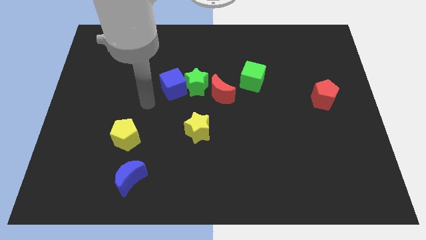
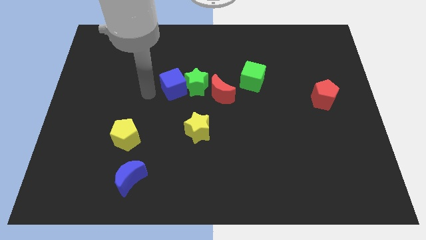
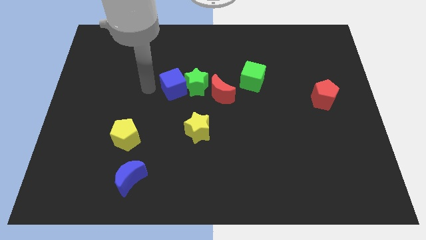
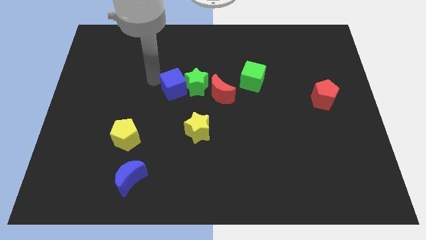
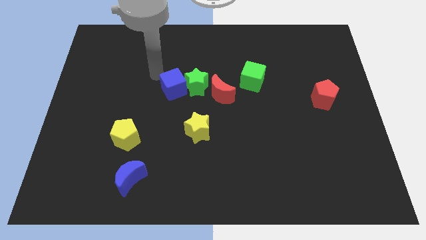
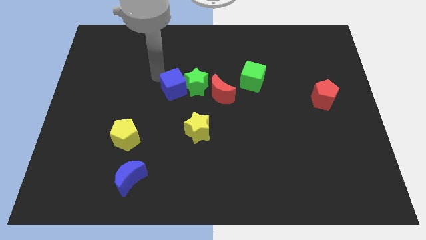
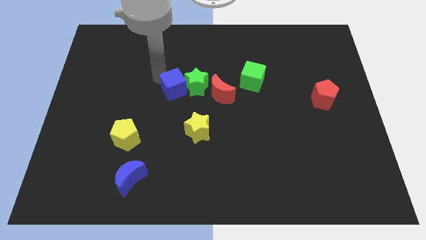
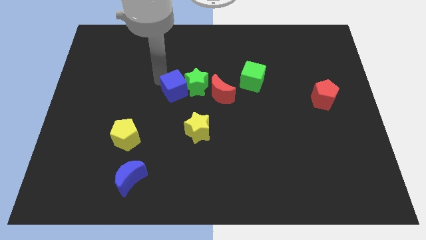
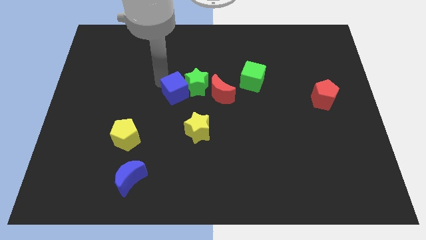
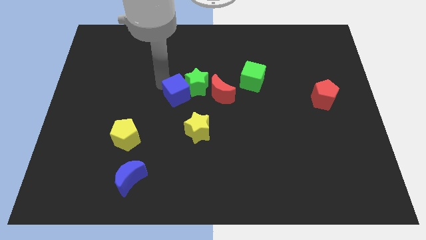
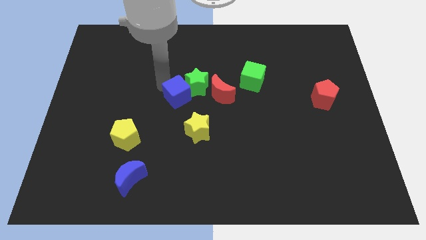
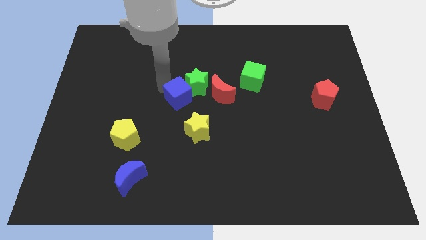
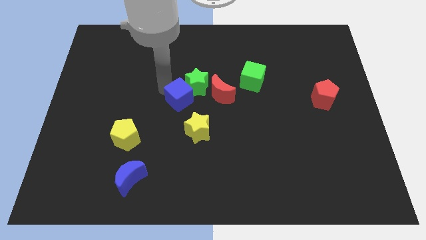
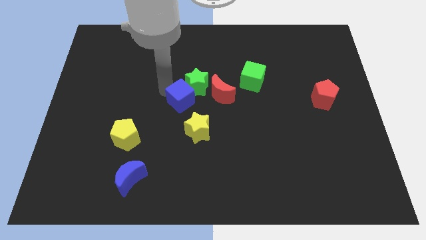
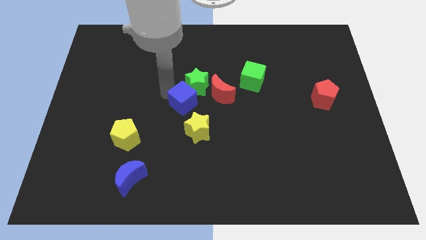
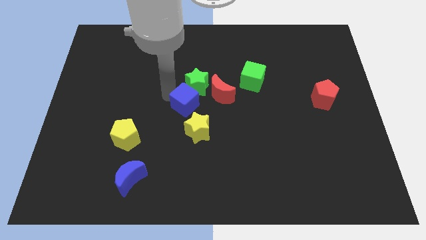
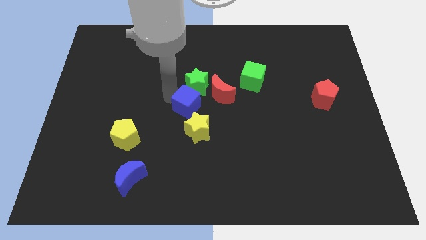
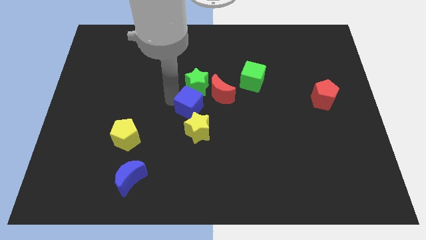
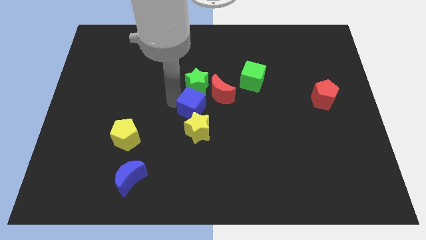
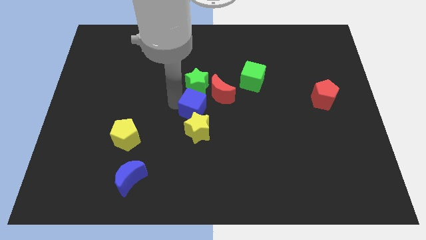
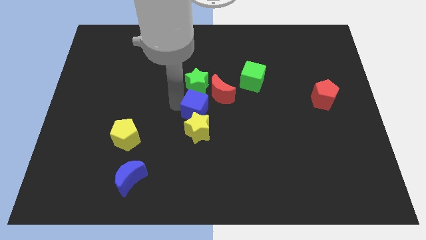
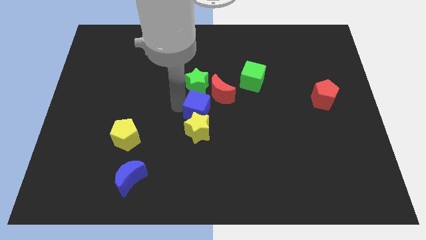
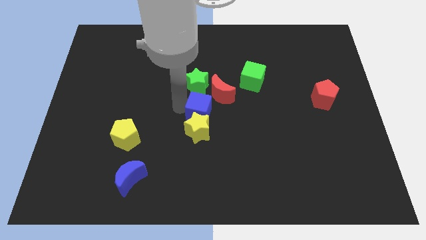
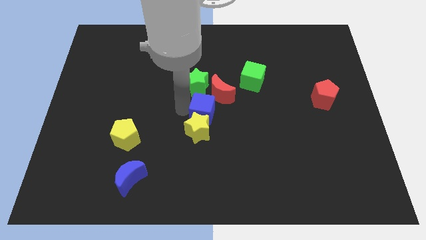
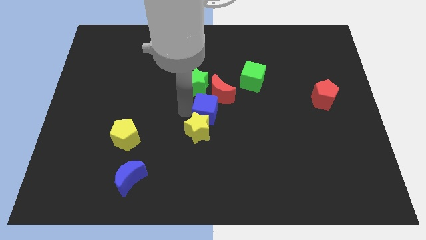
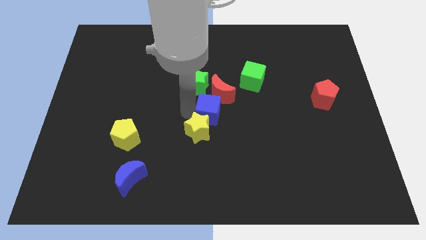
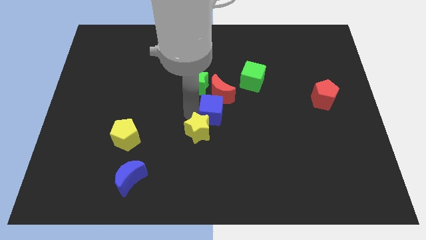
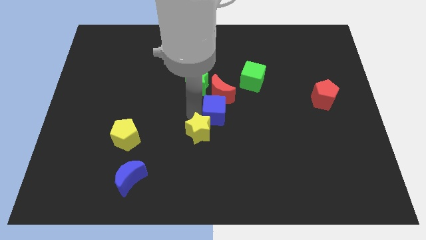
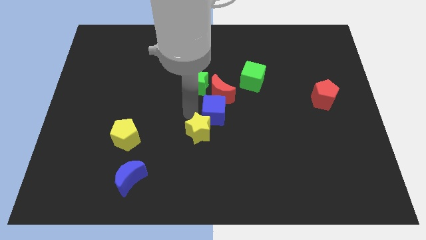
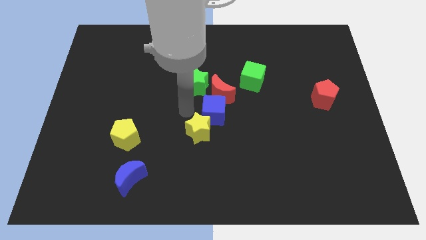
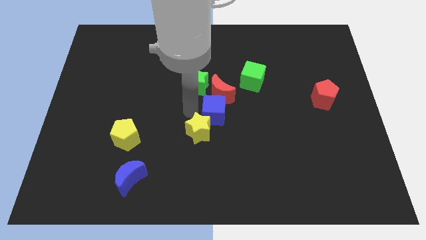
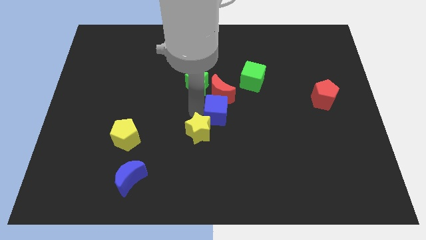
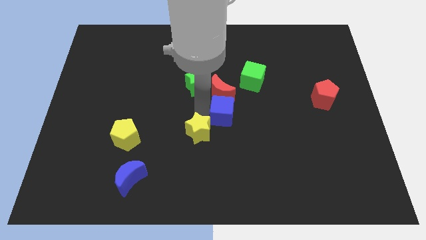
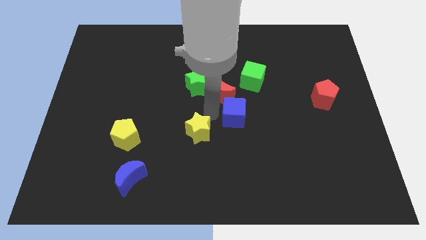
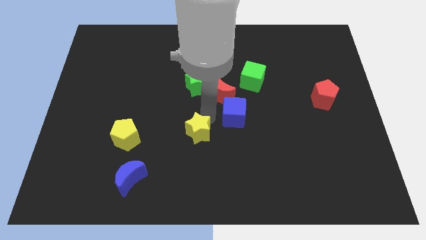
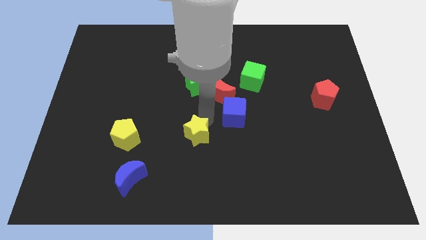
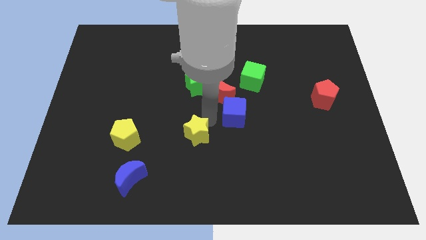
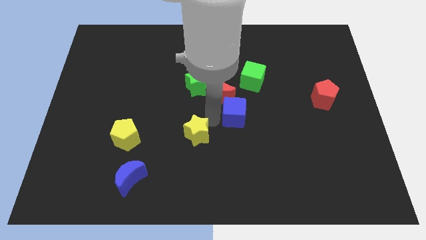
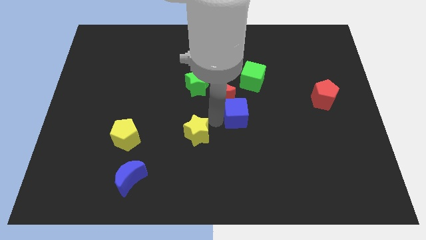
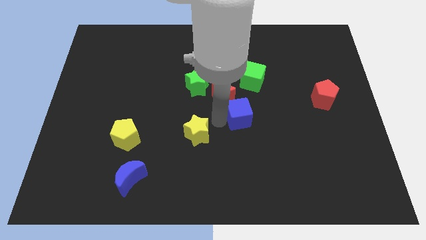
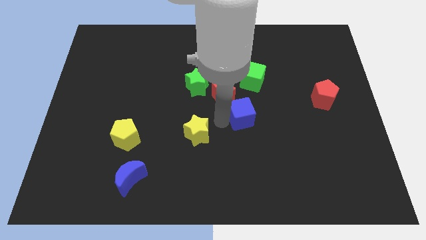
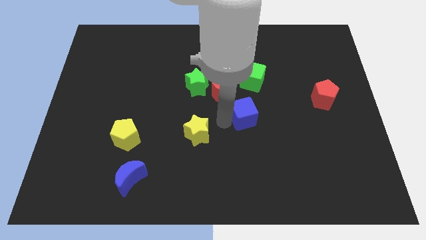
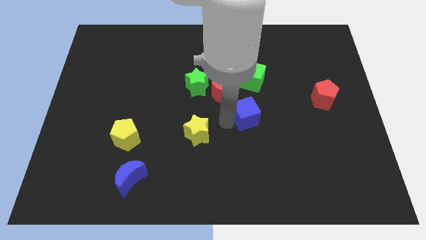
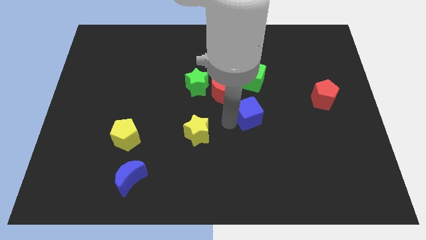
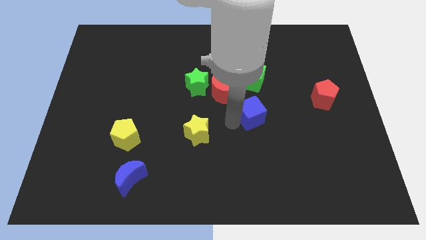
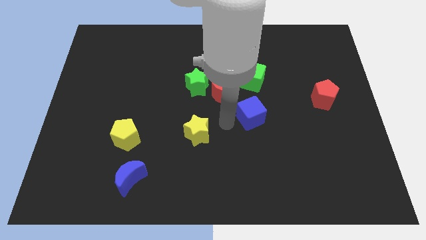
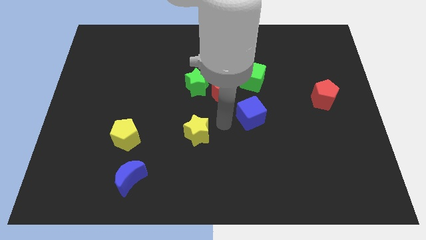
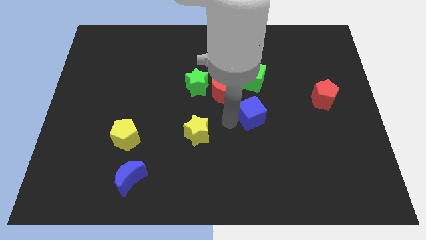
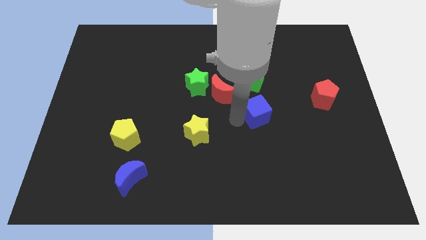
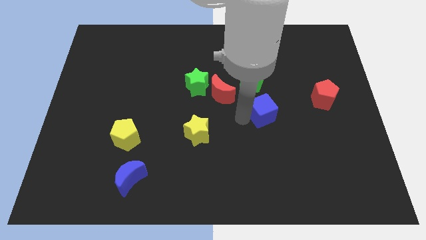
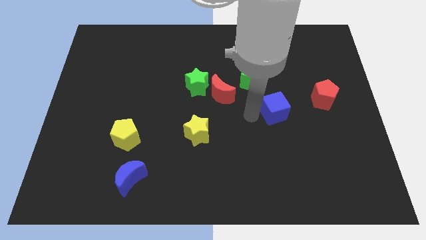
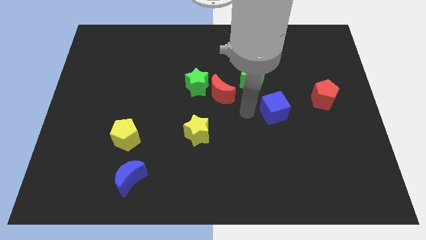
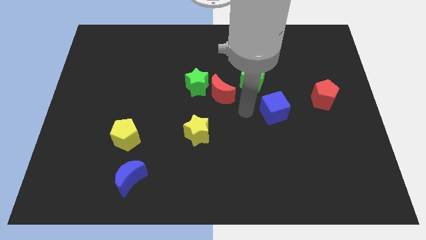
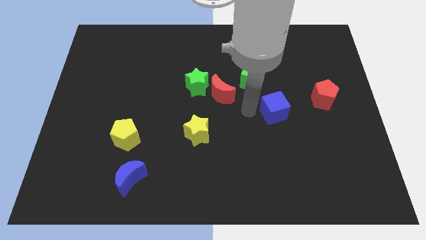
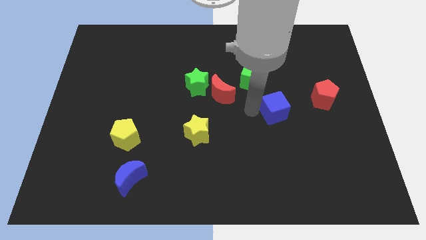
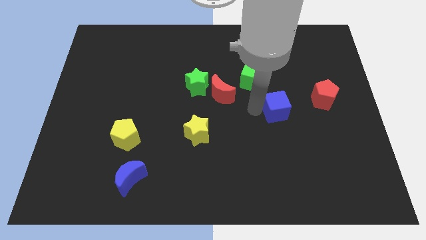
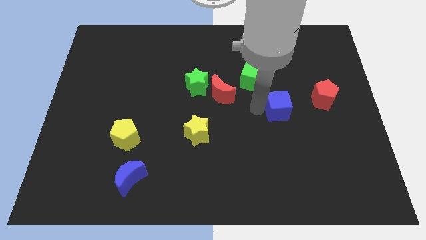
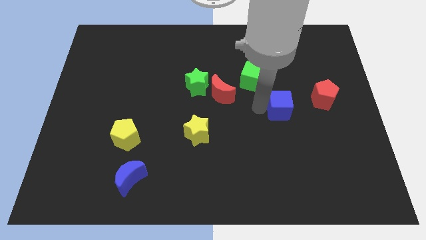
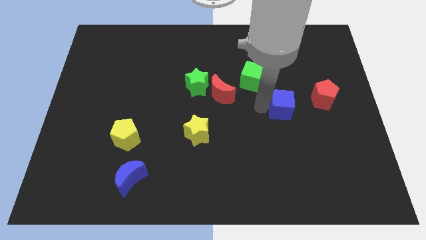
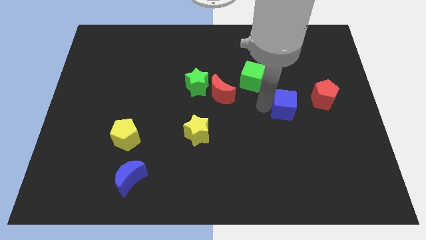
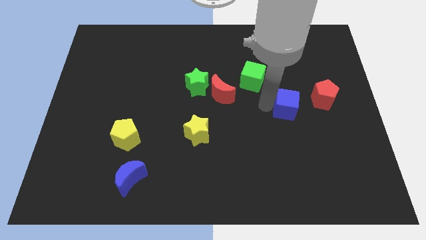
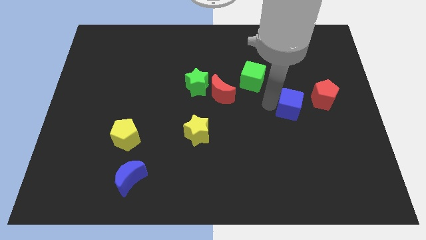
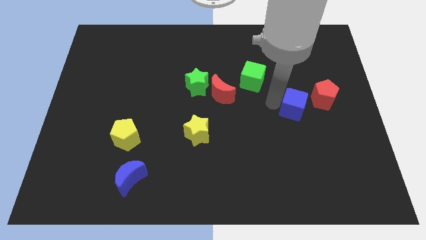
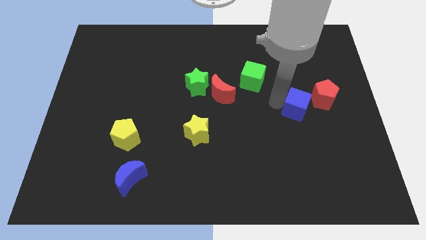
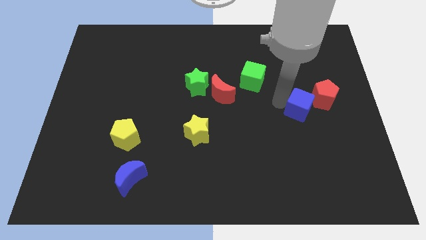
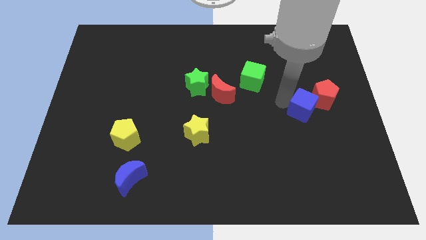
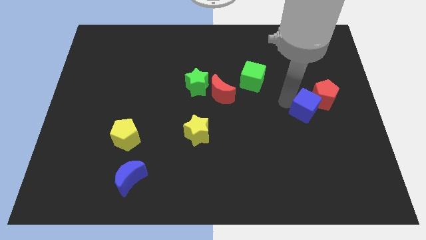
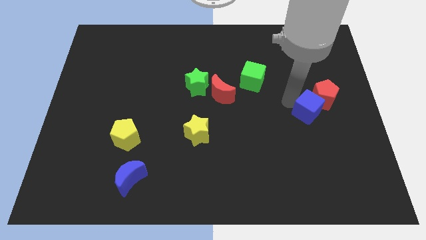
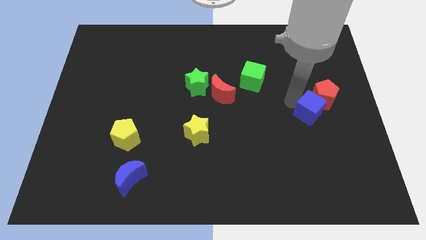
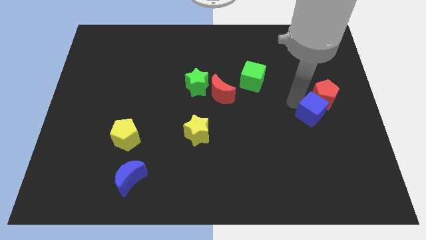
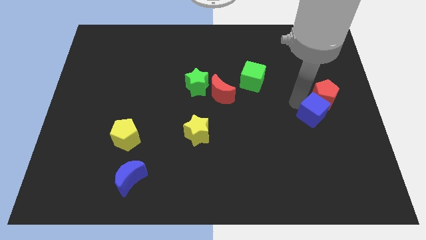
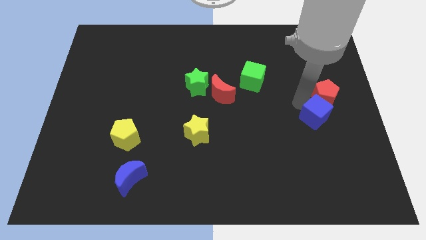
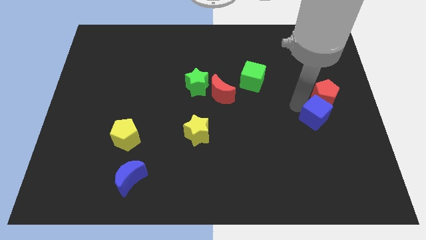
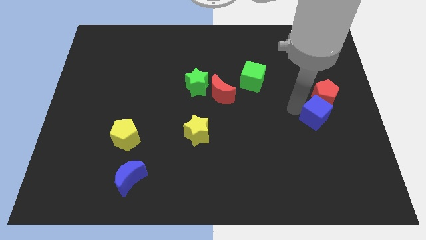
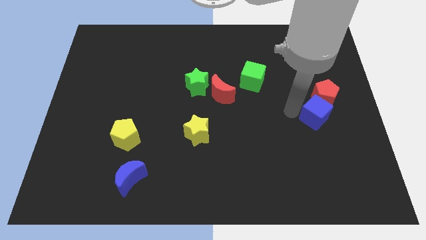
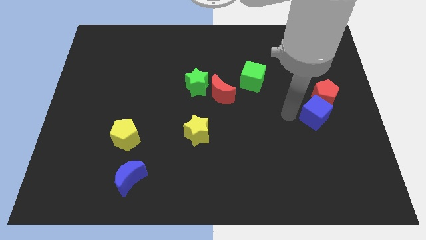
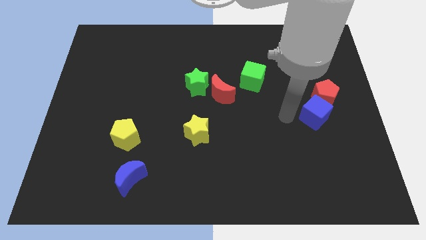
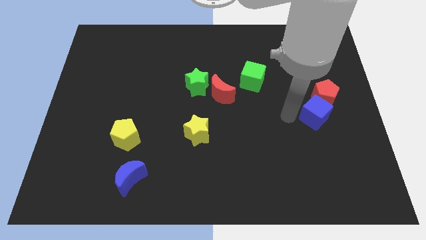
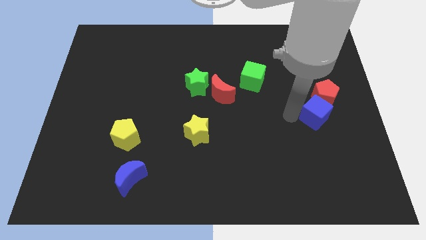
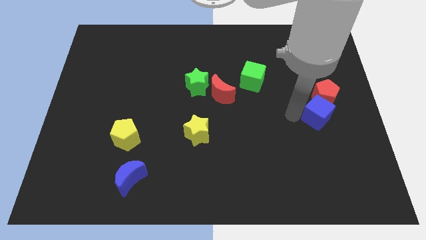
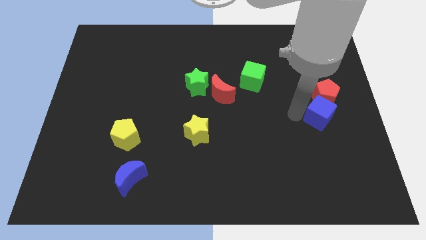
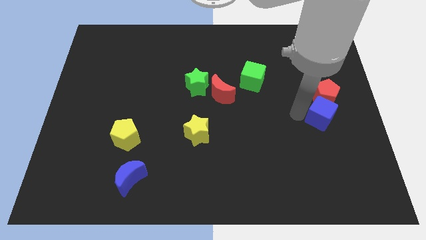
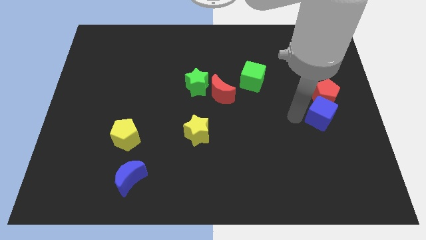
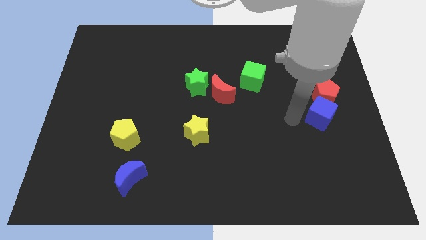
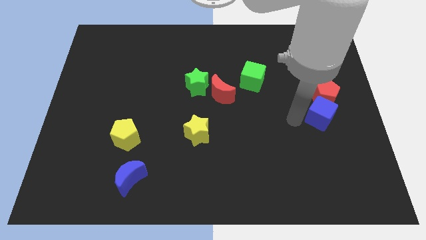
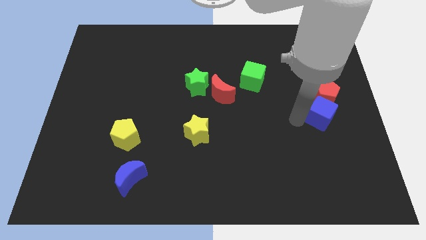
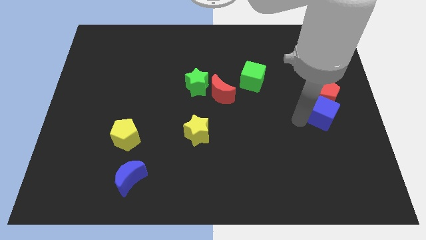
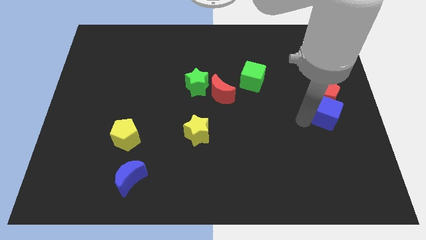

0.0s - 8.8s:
put the blue cube to the right side of the board
